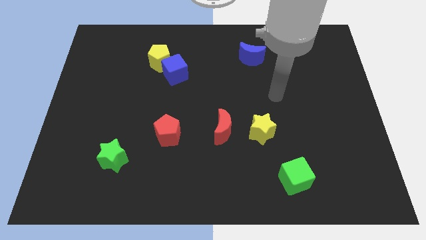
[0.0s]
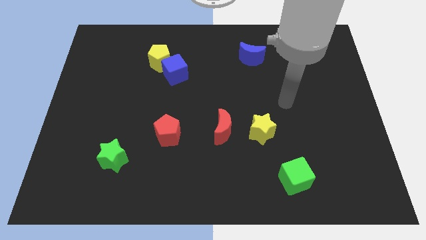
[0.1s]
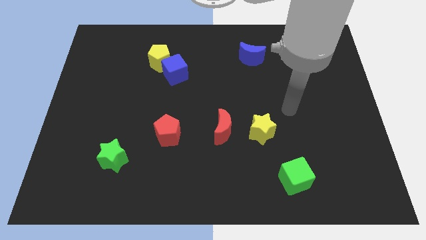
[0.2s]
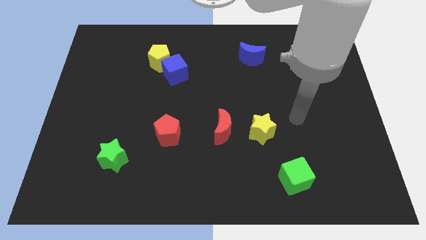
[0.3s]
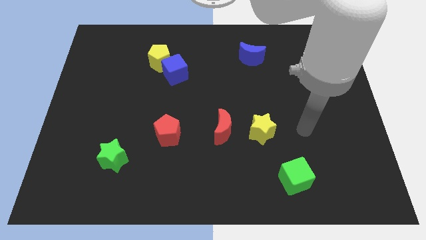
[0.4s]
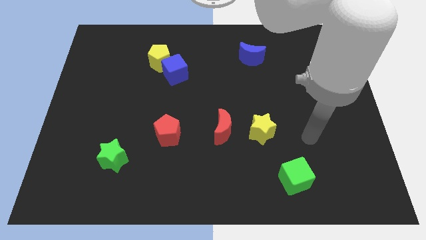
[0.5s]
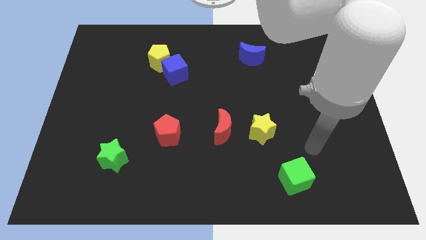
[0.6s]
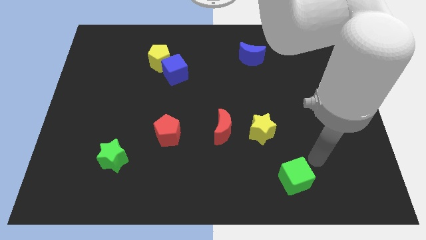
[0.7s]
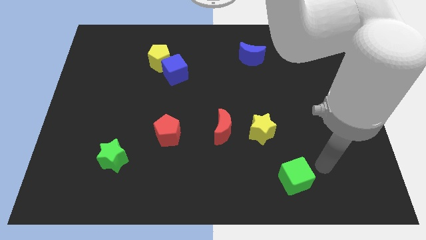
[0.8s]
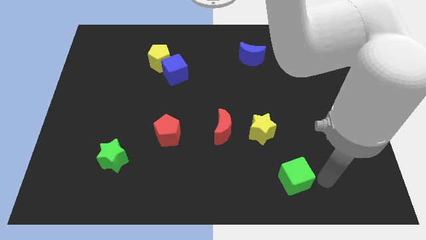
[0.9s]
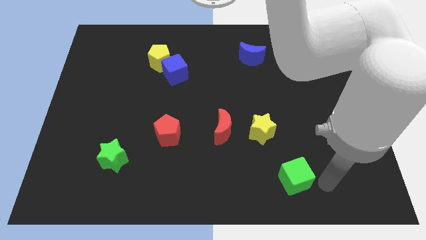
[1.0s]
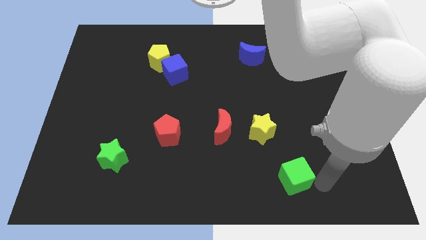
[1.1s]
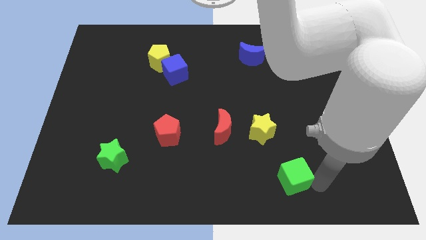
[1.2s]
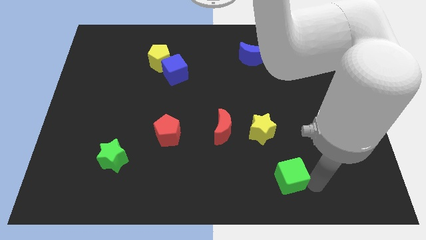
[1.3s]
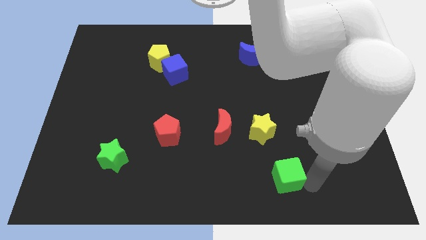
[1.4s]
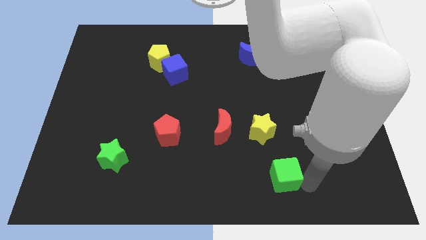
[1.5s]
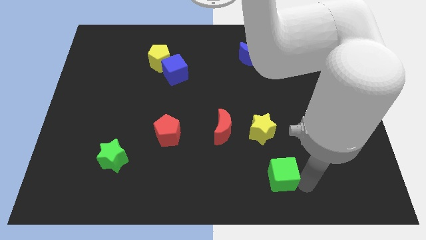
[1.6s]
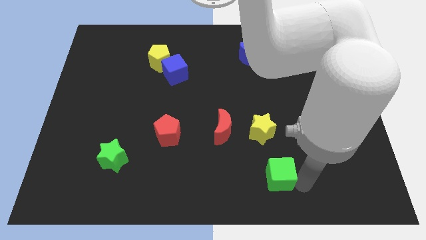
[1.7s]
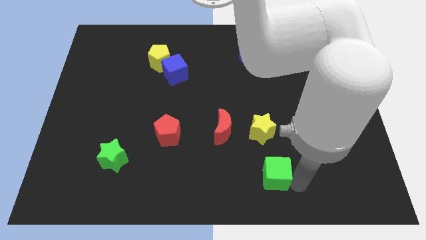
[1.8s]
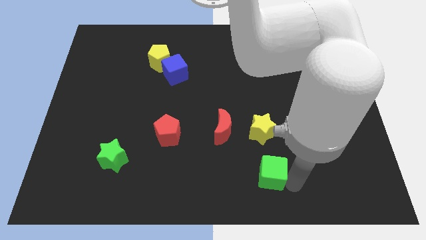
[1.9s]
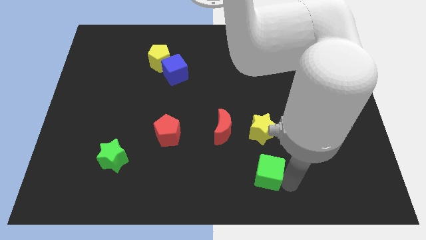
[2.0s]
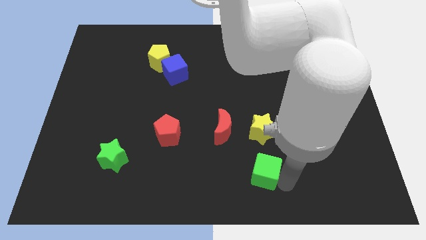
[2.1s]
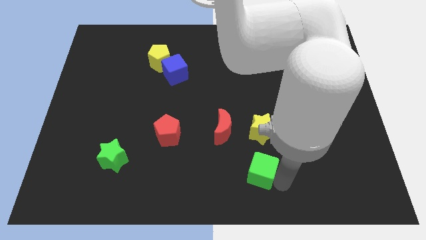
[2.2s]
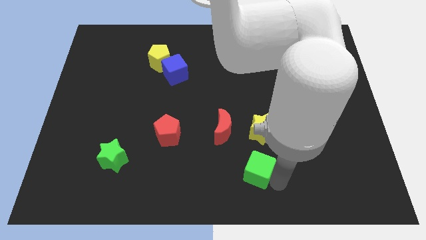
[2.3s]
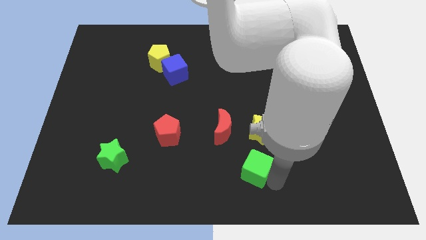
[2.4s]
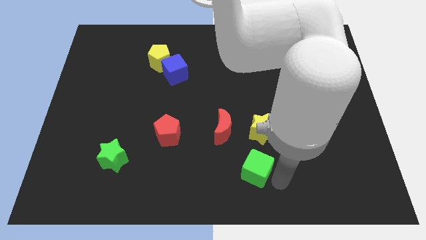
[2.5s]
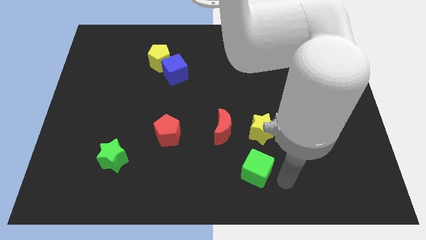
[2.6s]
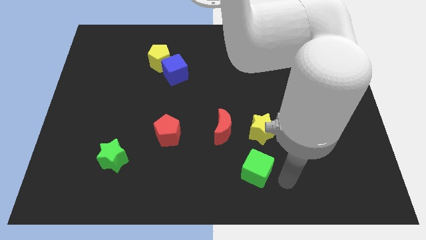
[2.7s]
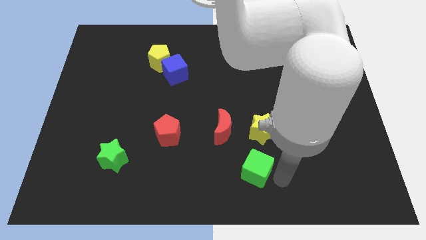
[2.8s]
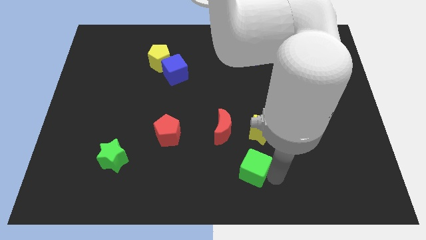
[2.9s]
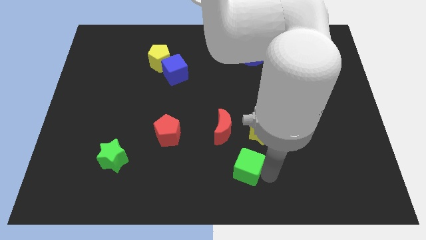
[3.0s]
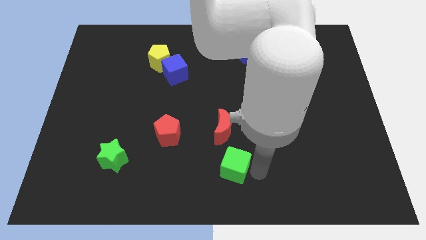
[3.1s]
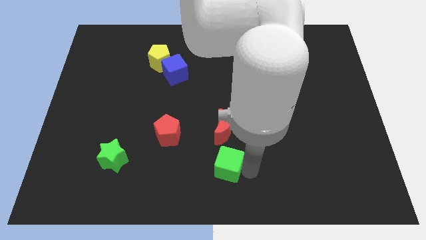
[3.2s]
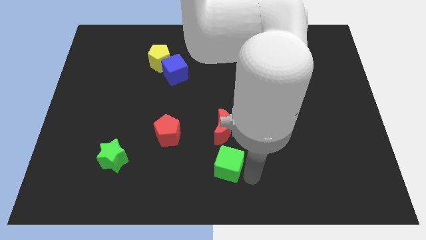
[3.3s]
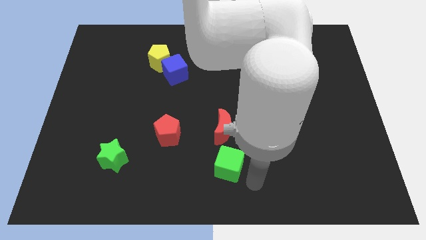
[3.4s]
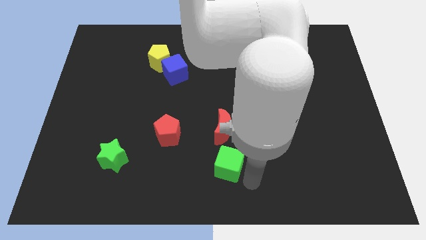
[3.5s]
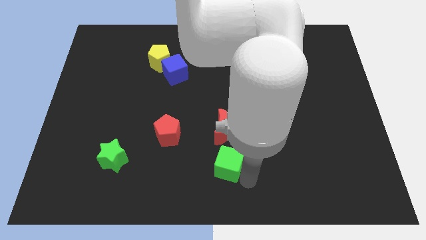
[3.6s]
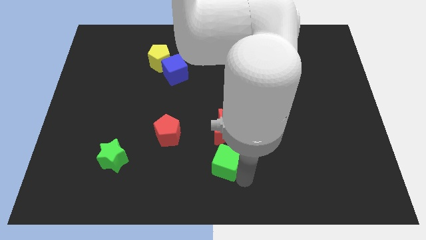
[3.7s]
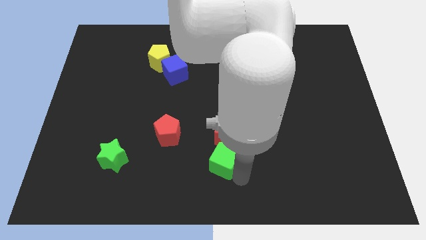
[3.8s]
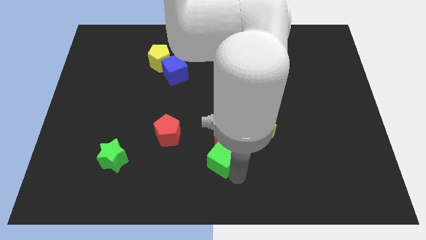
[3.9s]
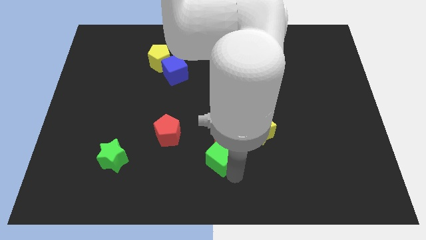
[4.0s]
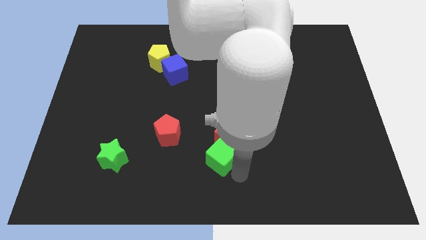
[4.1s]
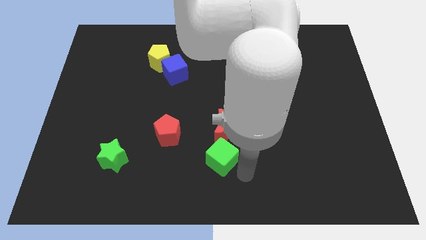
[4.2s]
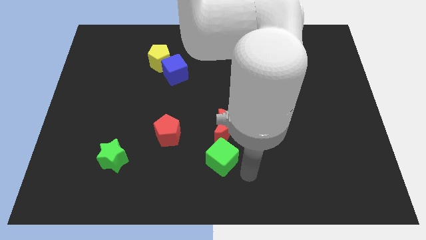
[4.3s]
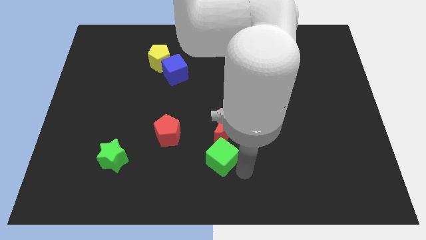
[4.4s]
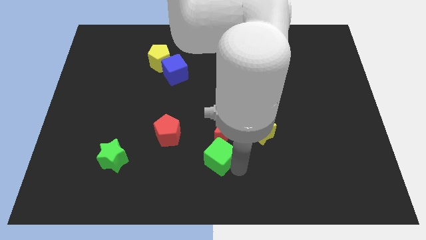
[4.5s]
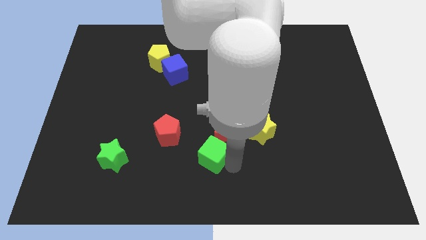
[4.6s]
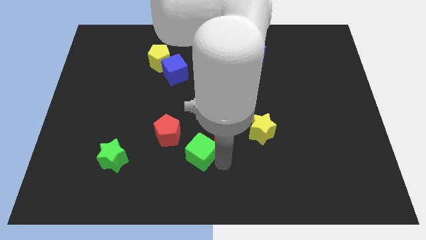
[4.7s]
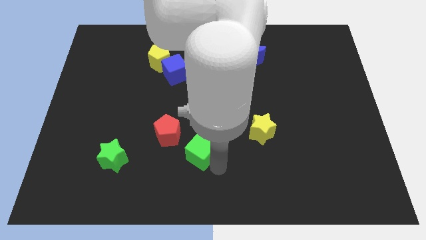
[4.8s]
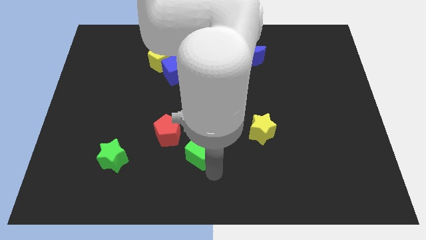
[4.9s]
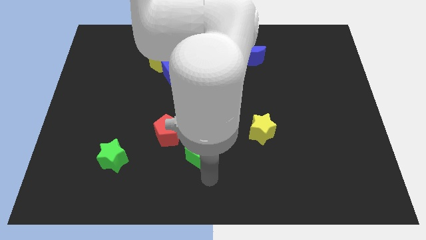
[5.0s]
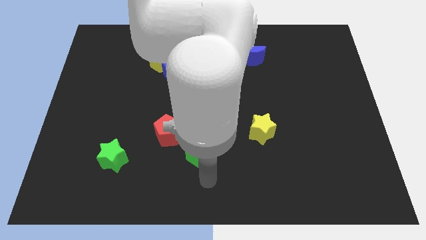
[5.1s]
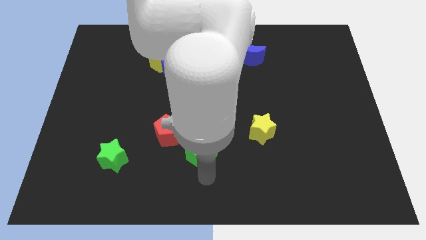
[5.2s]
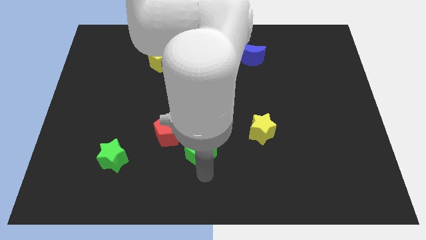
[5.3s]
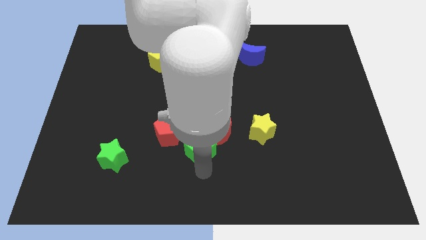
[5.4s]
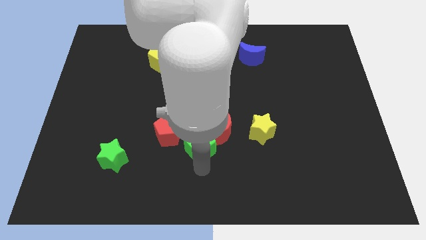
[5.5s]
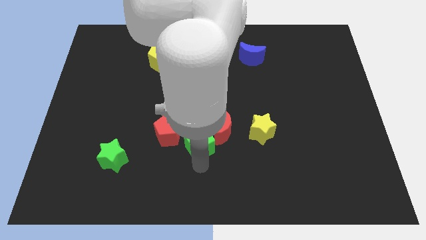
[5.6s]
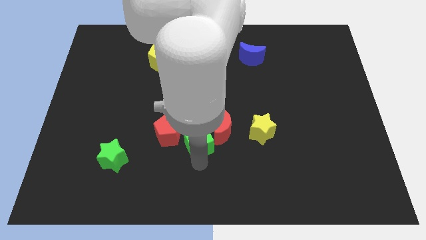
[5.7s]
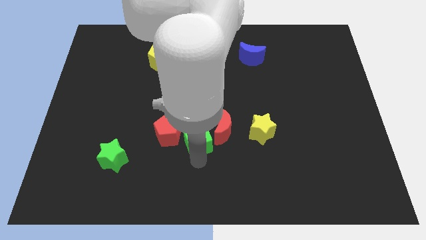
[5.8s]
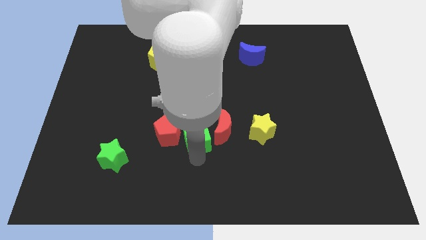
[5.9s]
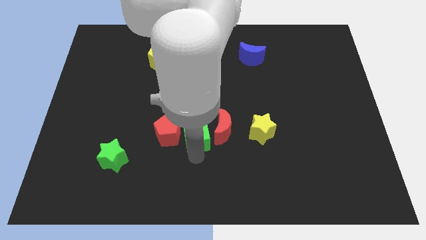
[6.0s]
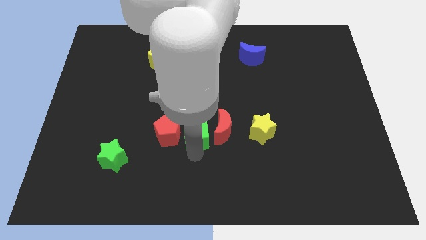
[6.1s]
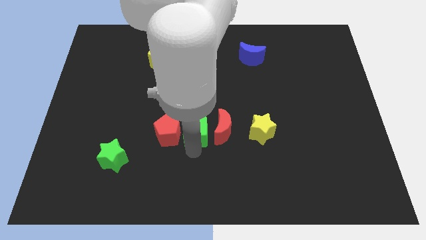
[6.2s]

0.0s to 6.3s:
move the green cube up and then to the left

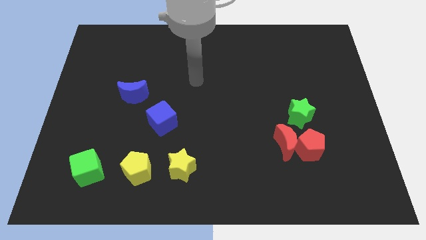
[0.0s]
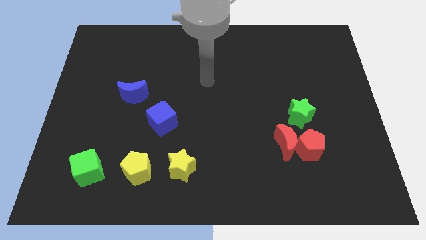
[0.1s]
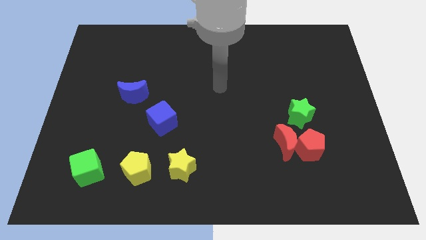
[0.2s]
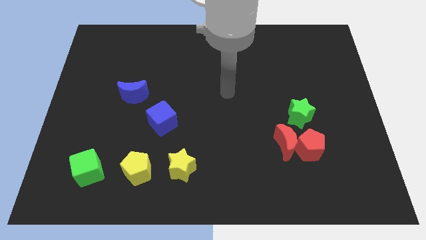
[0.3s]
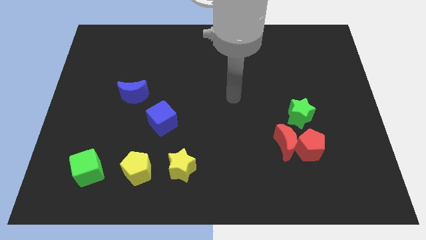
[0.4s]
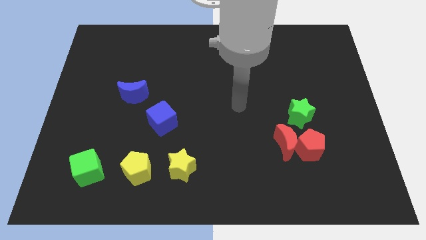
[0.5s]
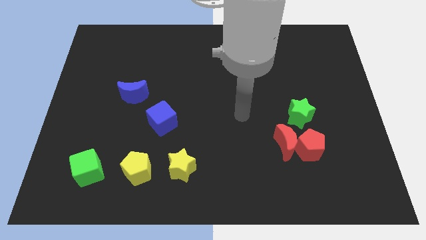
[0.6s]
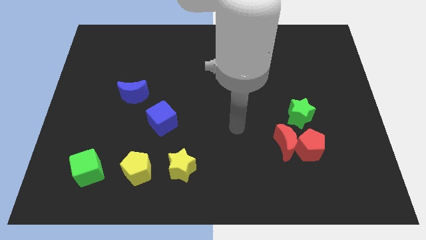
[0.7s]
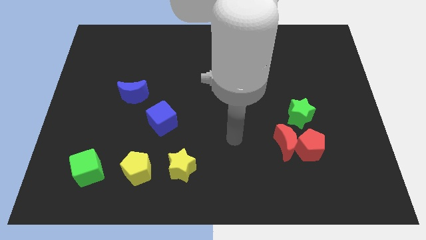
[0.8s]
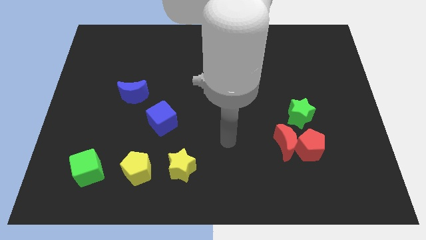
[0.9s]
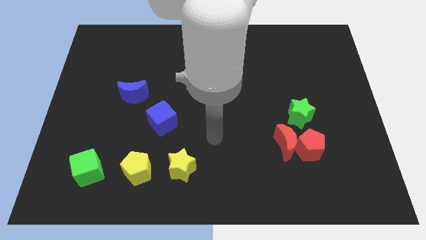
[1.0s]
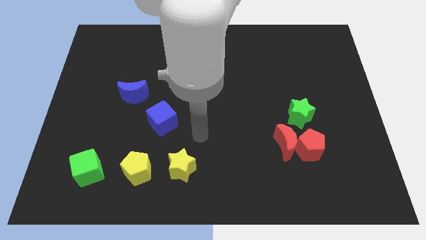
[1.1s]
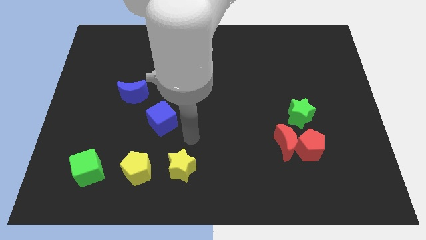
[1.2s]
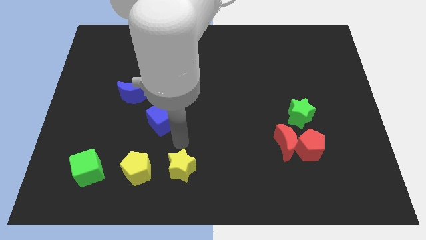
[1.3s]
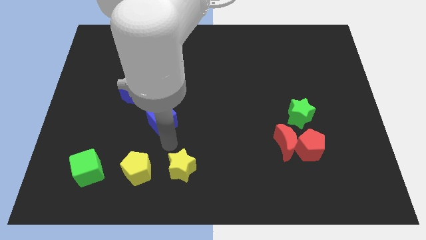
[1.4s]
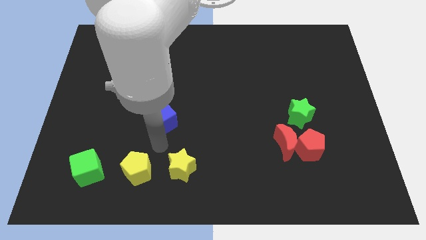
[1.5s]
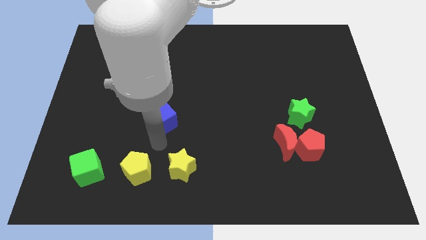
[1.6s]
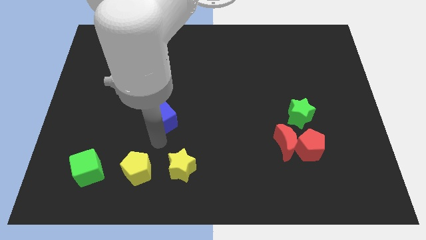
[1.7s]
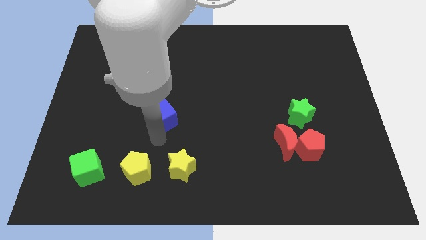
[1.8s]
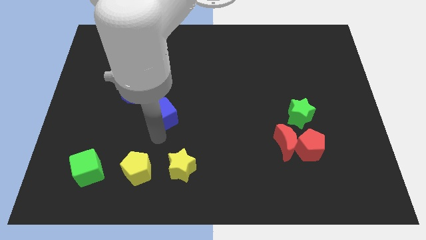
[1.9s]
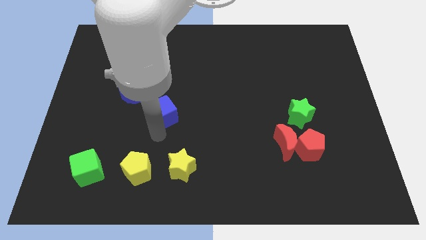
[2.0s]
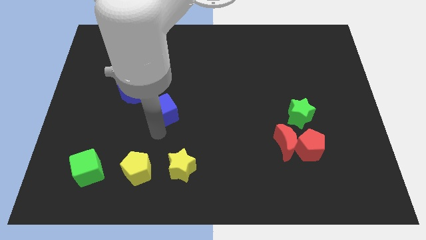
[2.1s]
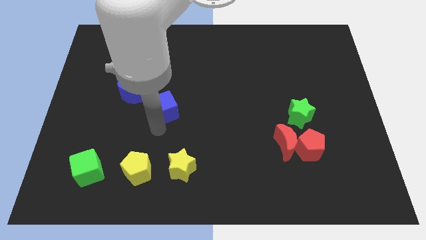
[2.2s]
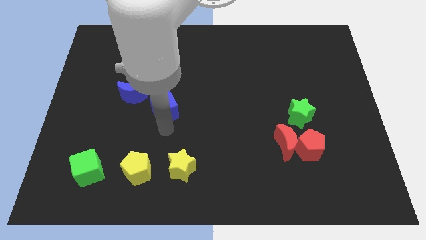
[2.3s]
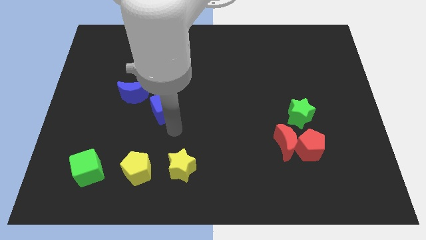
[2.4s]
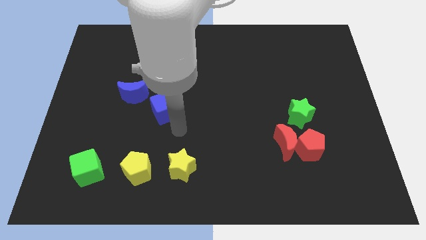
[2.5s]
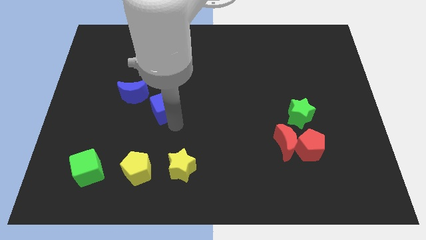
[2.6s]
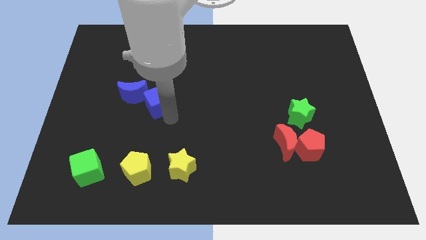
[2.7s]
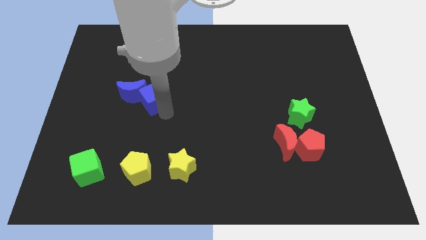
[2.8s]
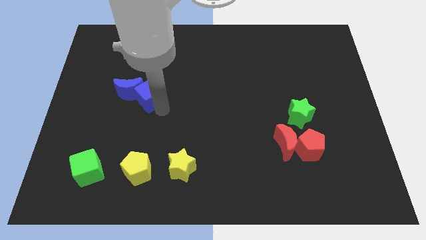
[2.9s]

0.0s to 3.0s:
slightly slide the blue cube upwards and left
